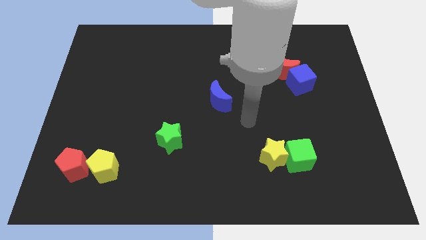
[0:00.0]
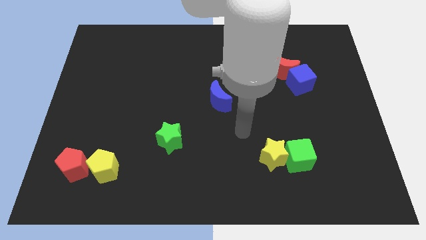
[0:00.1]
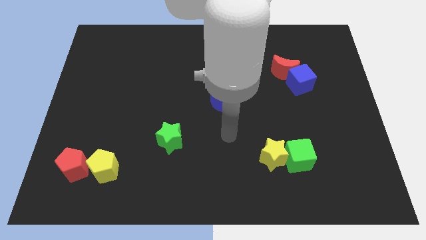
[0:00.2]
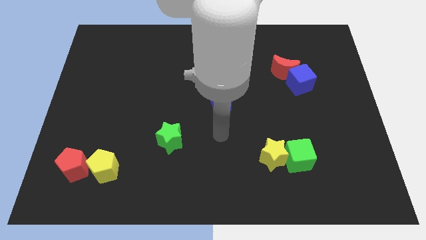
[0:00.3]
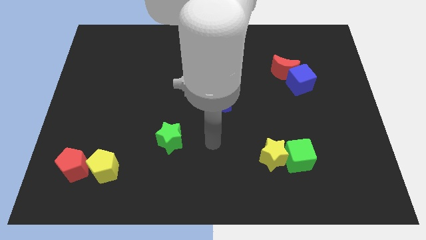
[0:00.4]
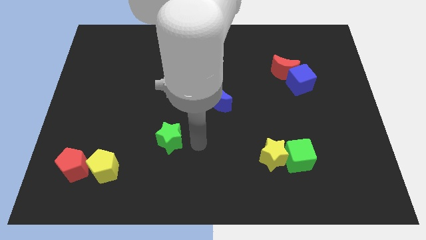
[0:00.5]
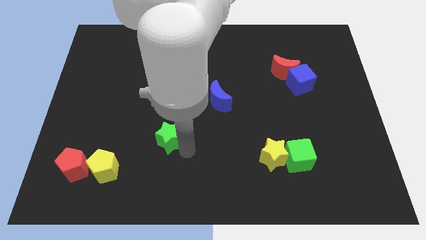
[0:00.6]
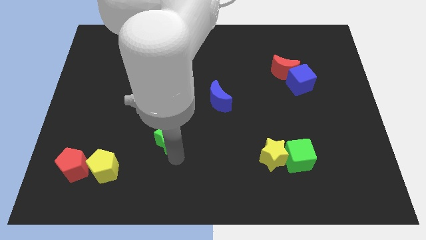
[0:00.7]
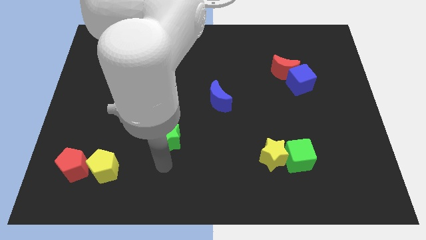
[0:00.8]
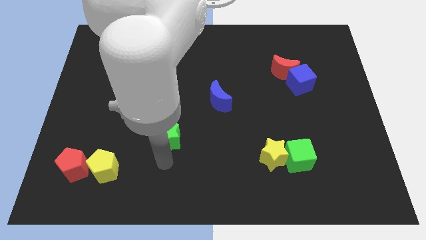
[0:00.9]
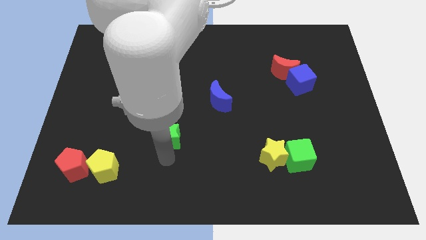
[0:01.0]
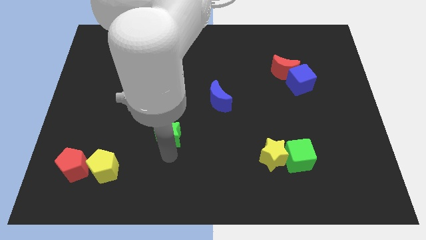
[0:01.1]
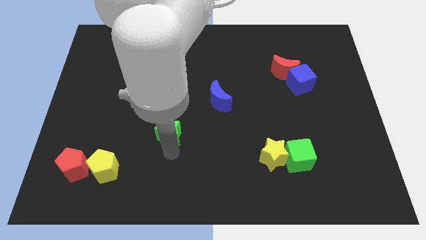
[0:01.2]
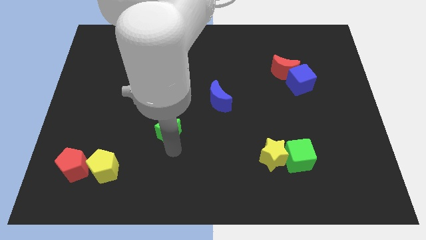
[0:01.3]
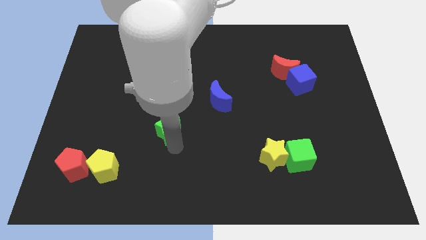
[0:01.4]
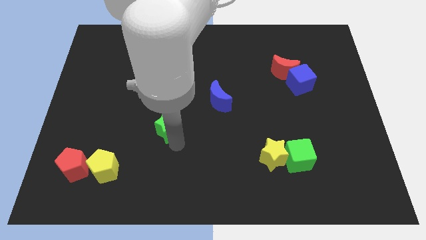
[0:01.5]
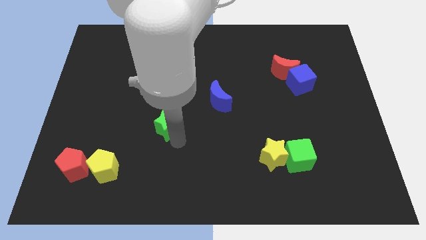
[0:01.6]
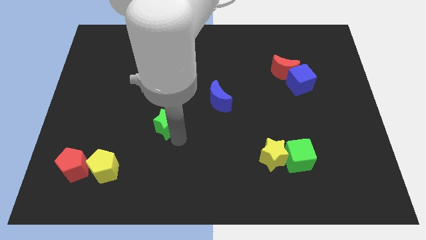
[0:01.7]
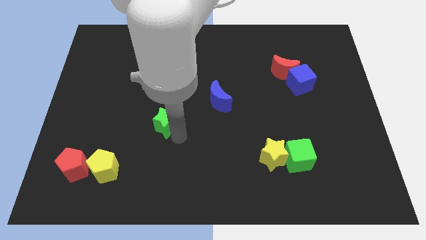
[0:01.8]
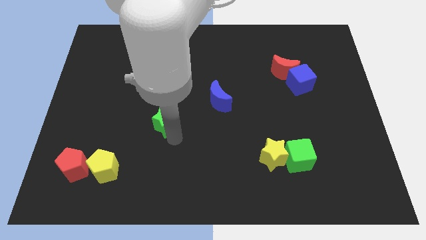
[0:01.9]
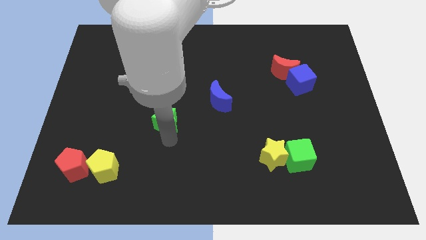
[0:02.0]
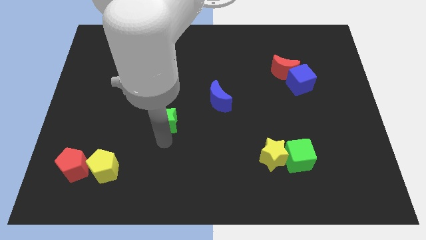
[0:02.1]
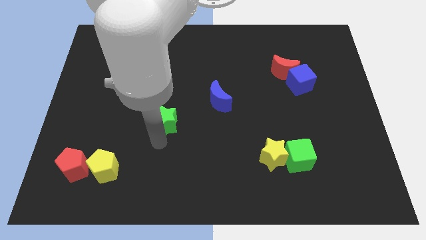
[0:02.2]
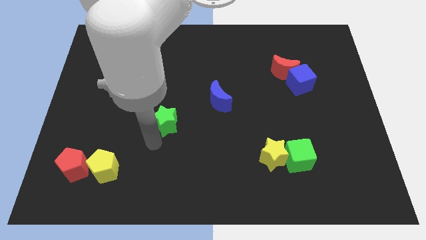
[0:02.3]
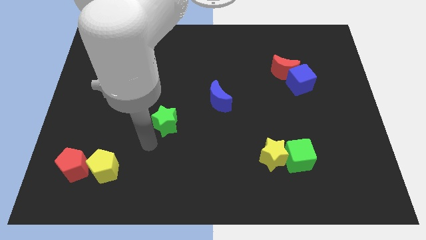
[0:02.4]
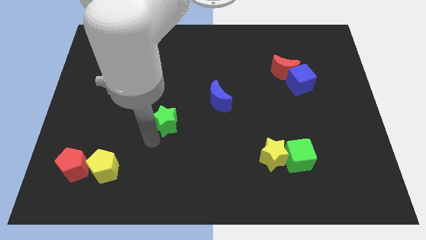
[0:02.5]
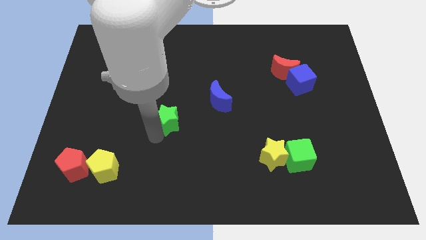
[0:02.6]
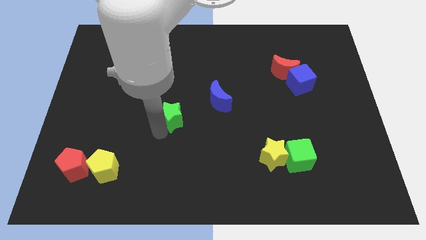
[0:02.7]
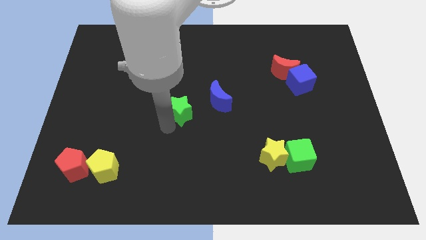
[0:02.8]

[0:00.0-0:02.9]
slide the green star up somewhat

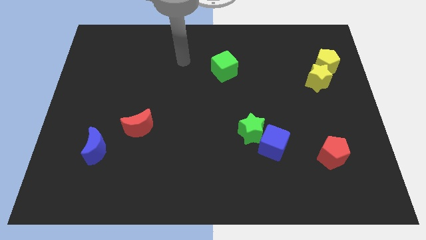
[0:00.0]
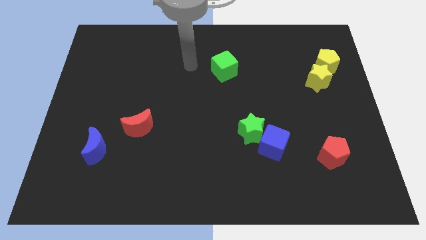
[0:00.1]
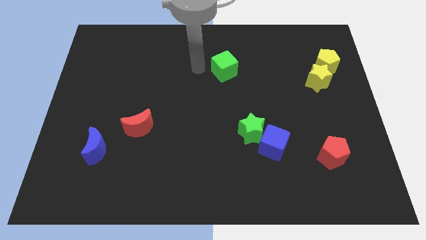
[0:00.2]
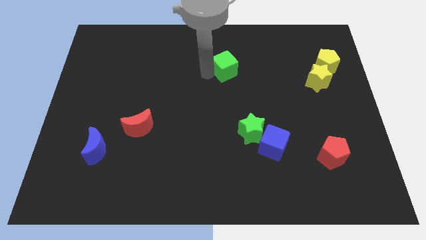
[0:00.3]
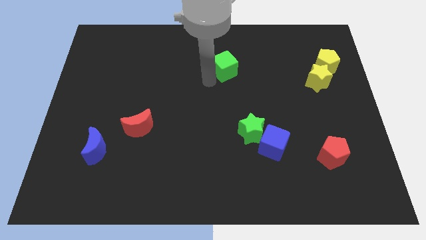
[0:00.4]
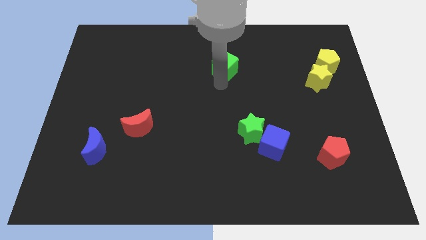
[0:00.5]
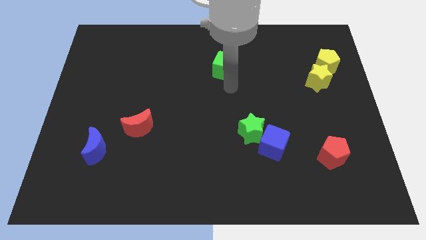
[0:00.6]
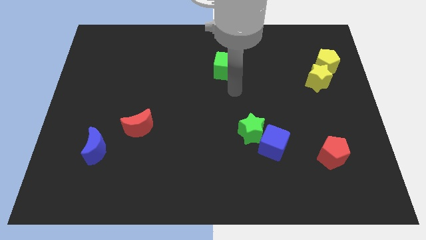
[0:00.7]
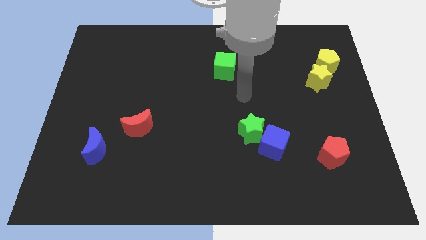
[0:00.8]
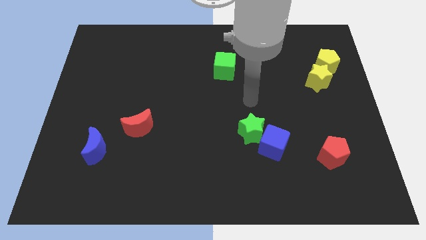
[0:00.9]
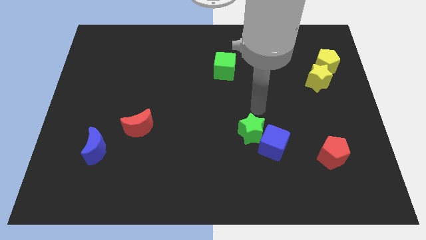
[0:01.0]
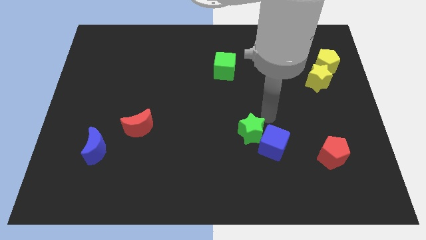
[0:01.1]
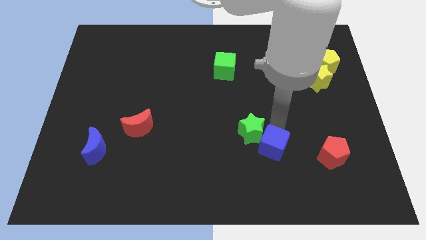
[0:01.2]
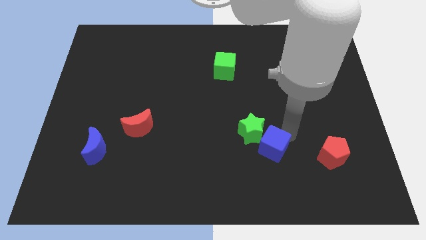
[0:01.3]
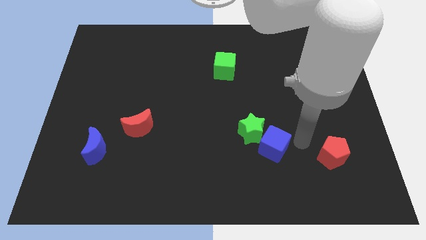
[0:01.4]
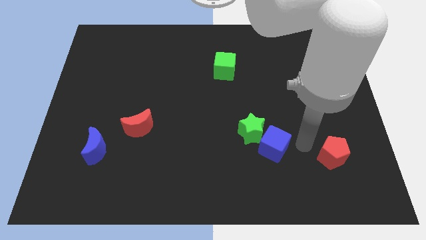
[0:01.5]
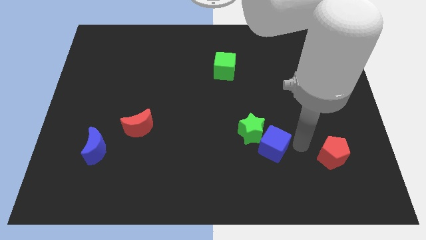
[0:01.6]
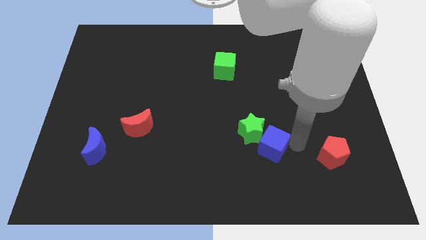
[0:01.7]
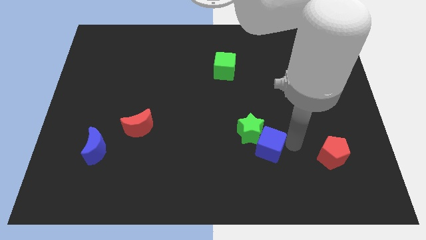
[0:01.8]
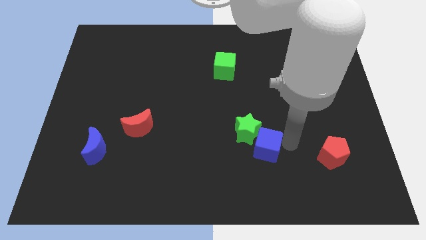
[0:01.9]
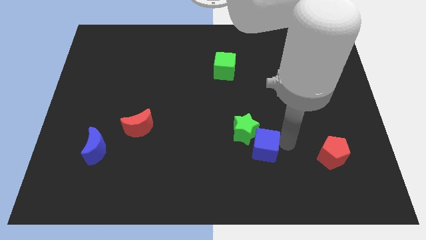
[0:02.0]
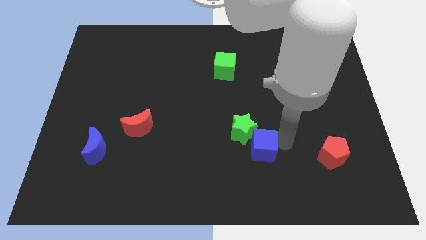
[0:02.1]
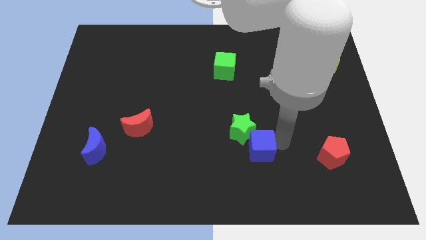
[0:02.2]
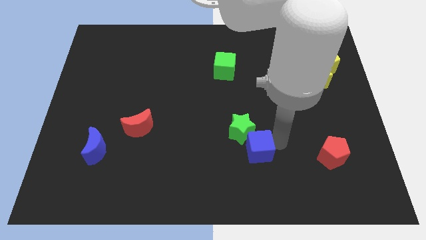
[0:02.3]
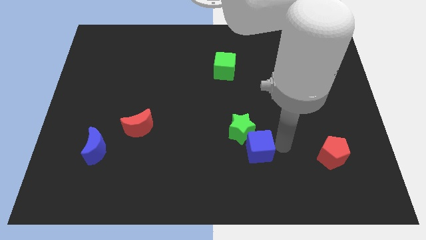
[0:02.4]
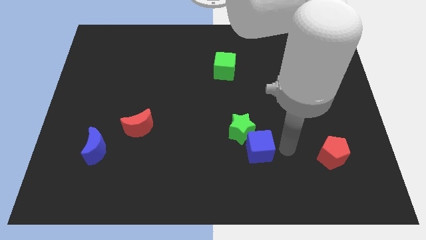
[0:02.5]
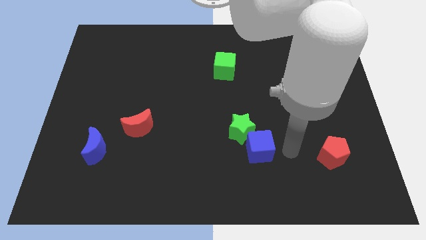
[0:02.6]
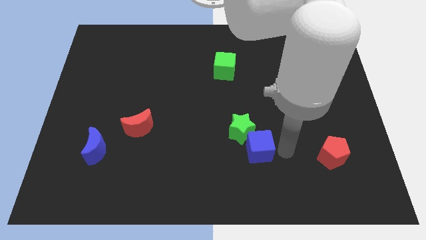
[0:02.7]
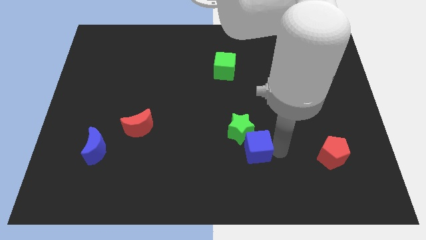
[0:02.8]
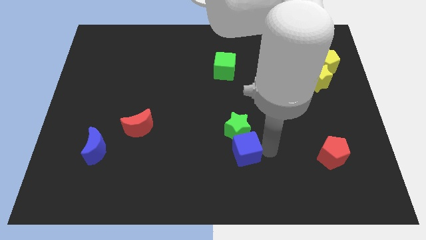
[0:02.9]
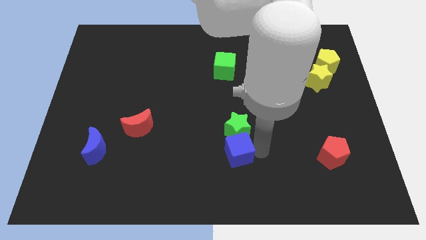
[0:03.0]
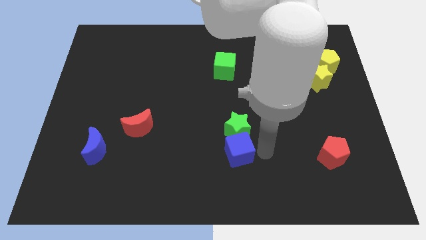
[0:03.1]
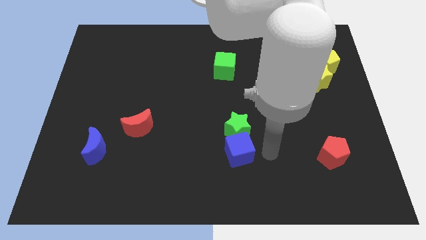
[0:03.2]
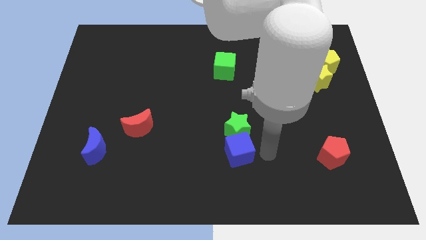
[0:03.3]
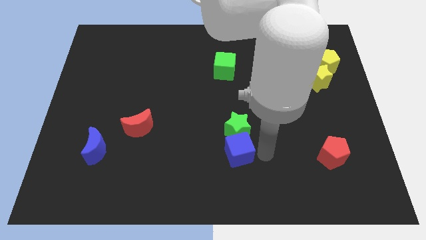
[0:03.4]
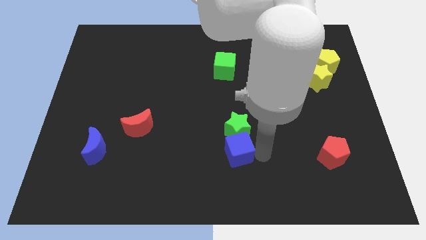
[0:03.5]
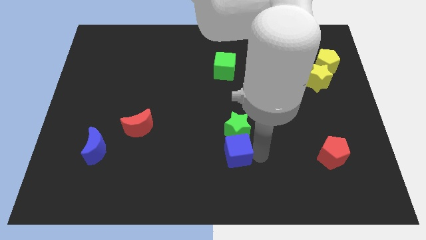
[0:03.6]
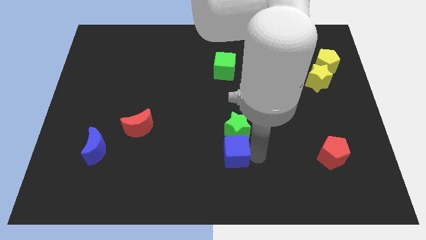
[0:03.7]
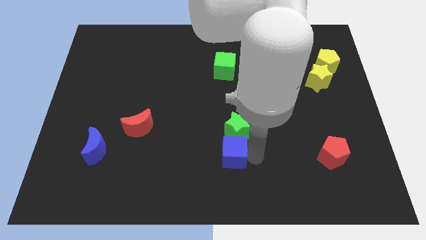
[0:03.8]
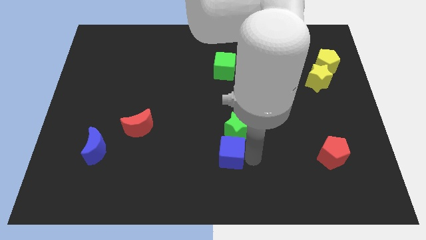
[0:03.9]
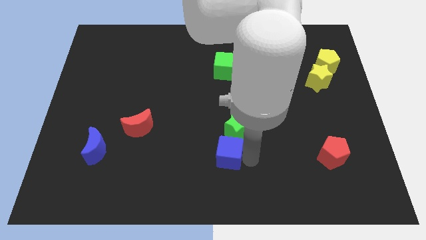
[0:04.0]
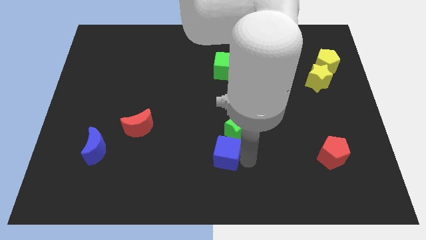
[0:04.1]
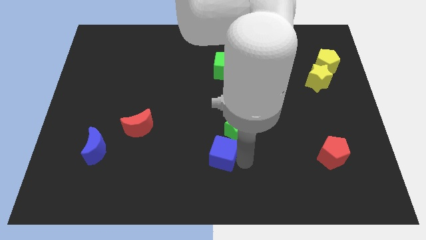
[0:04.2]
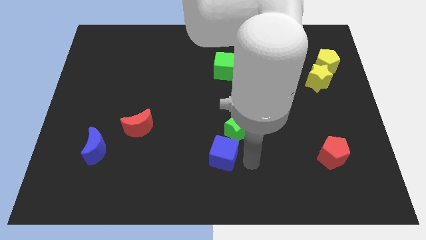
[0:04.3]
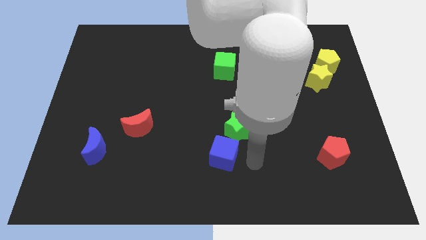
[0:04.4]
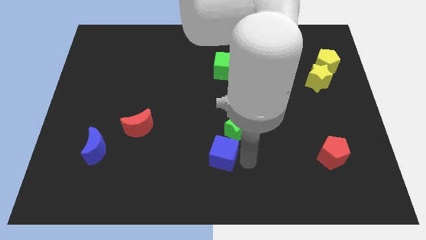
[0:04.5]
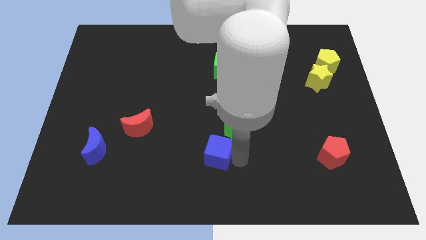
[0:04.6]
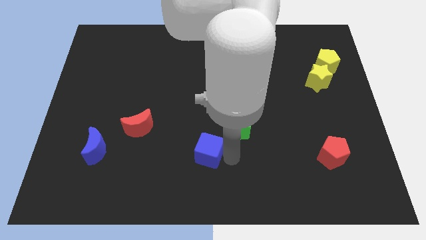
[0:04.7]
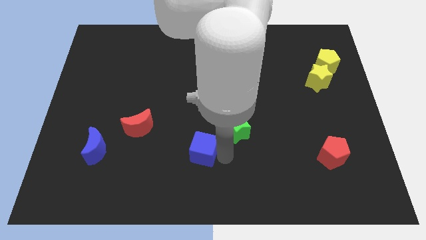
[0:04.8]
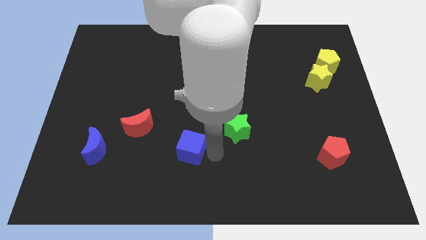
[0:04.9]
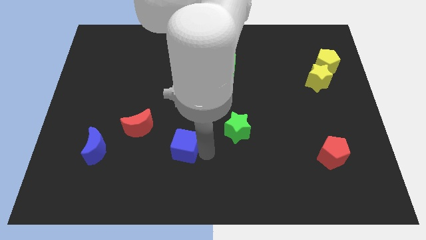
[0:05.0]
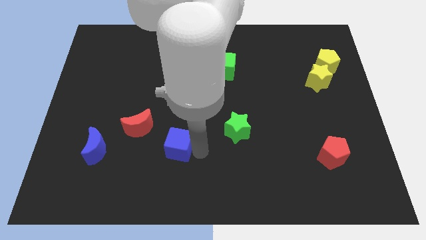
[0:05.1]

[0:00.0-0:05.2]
slide the blue cube left
